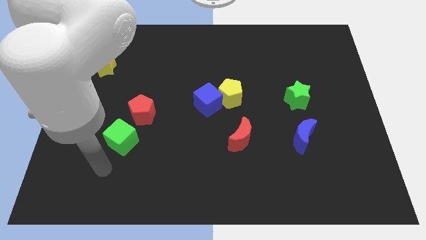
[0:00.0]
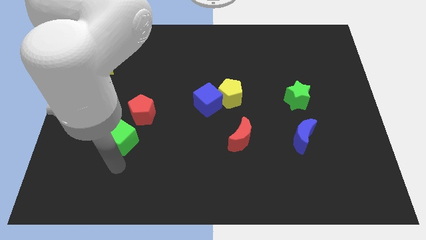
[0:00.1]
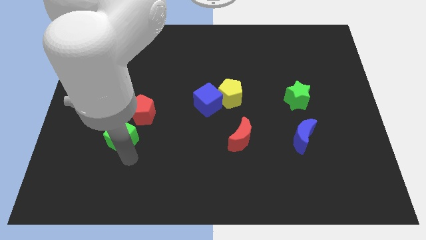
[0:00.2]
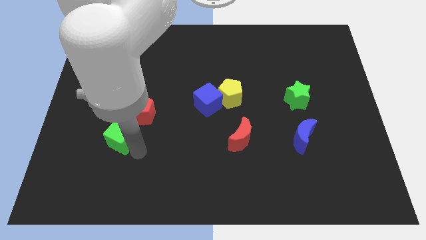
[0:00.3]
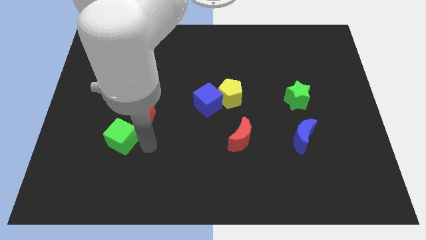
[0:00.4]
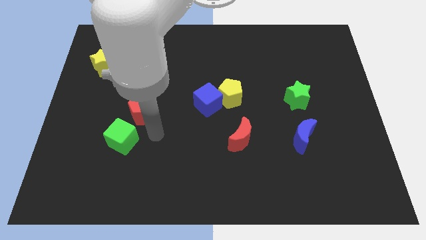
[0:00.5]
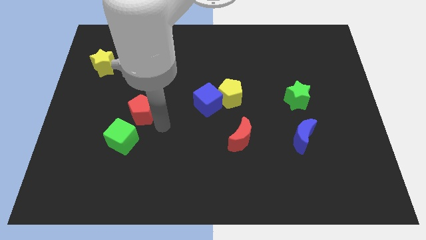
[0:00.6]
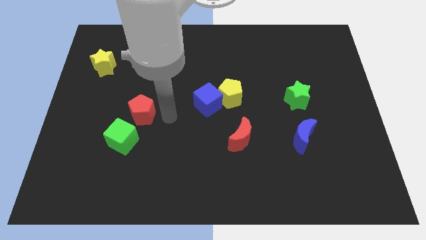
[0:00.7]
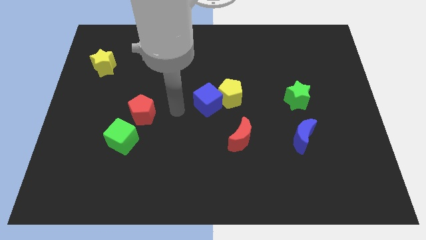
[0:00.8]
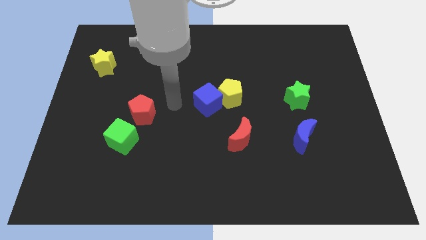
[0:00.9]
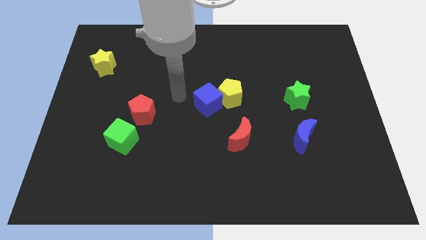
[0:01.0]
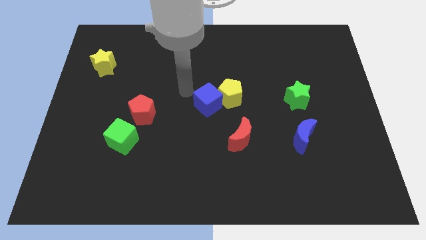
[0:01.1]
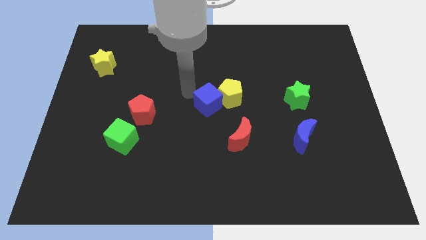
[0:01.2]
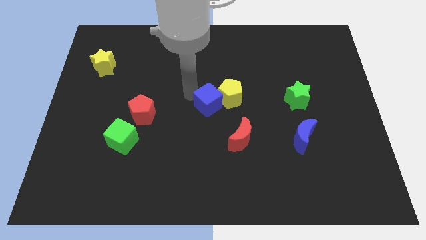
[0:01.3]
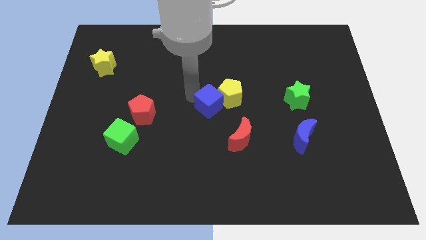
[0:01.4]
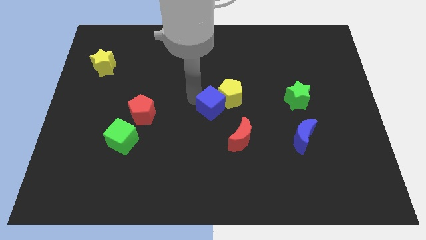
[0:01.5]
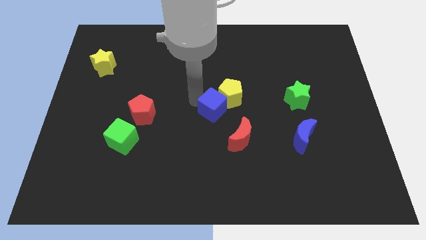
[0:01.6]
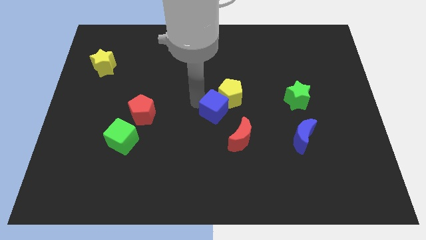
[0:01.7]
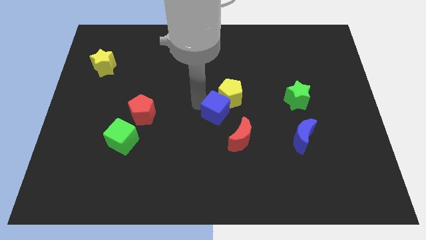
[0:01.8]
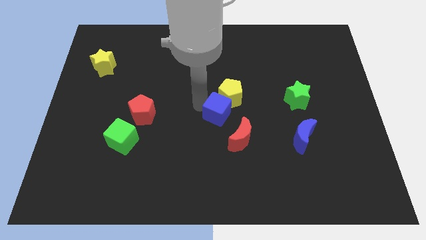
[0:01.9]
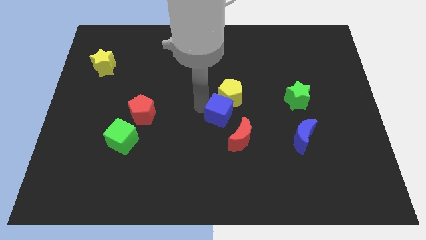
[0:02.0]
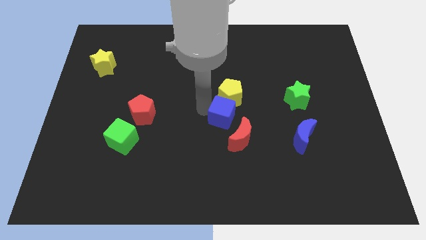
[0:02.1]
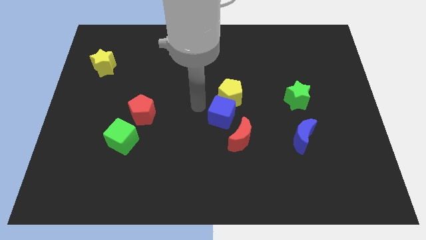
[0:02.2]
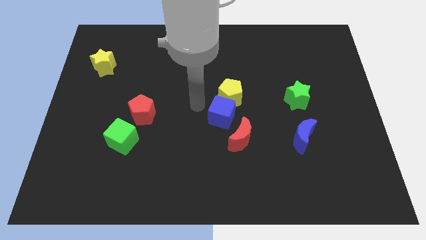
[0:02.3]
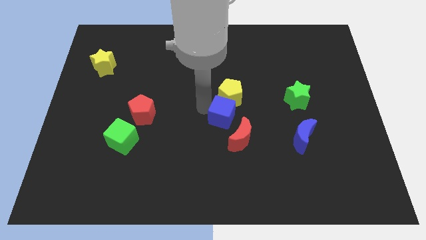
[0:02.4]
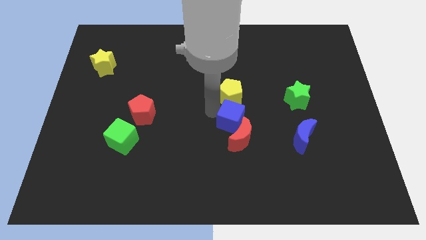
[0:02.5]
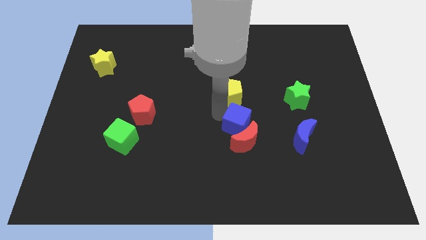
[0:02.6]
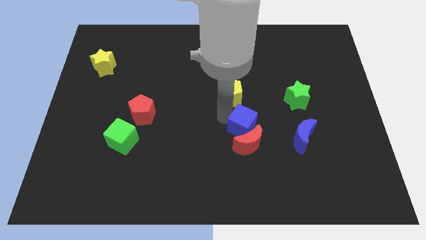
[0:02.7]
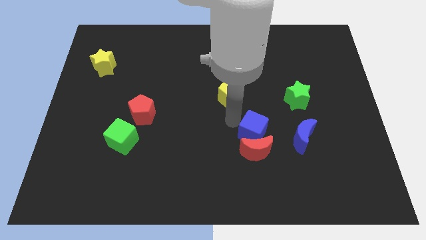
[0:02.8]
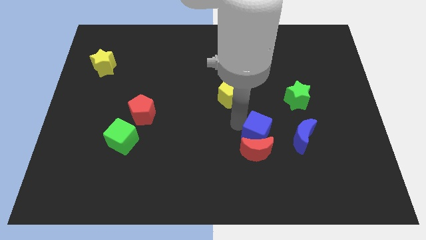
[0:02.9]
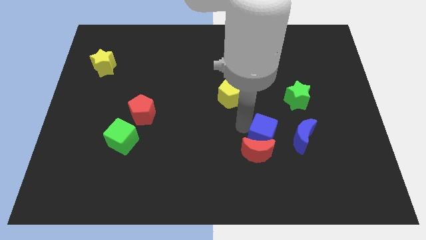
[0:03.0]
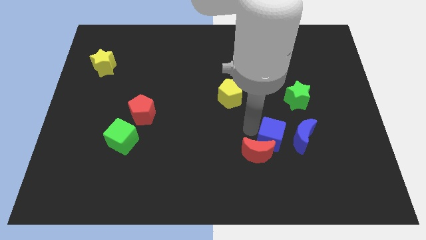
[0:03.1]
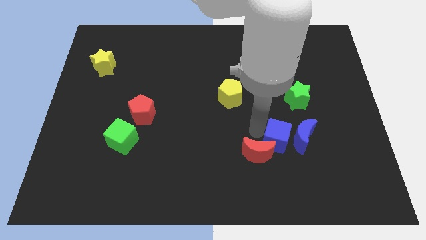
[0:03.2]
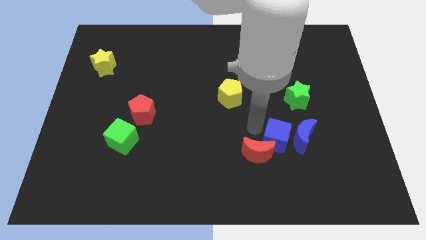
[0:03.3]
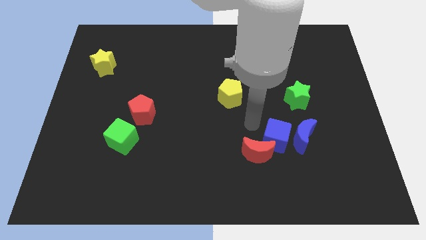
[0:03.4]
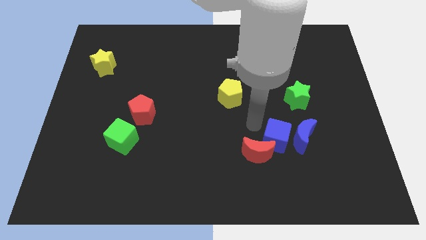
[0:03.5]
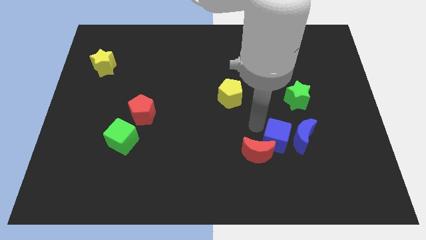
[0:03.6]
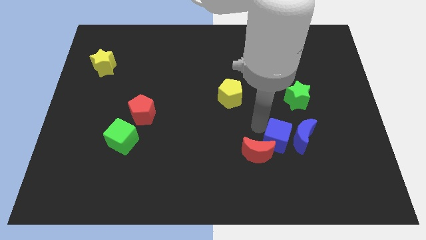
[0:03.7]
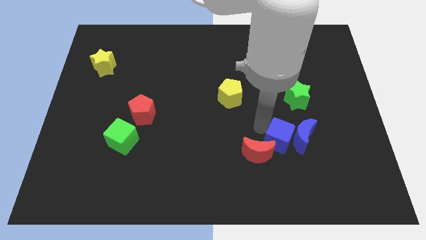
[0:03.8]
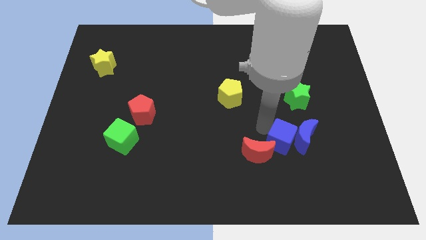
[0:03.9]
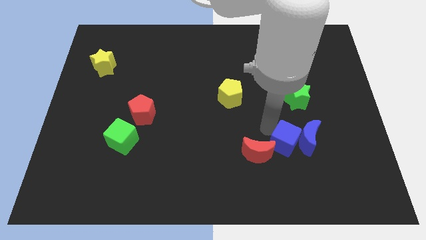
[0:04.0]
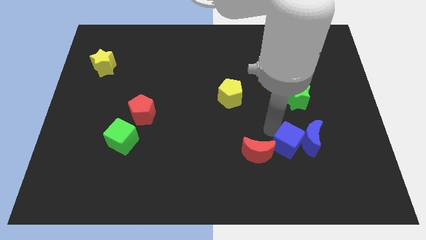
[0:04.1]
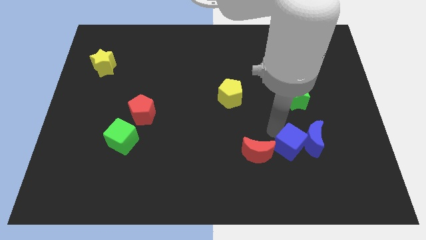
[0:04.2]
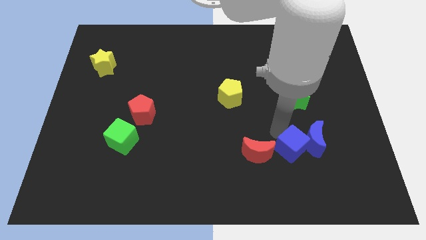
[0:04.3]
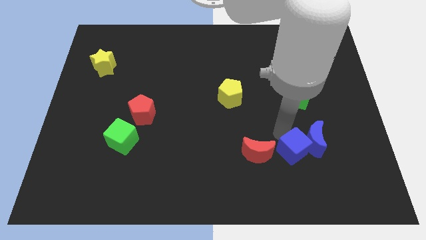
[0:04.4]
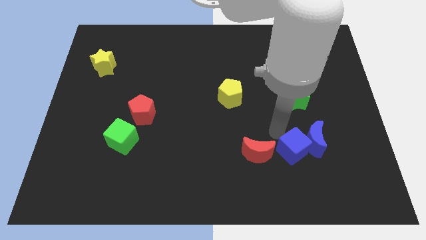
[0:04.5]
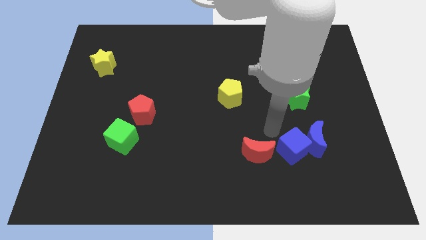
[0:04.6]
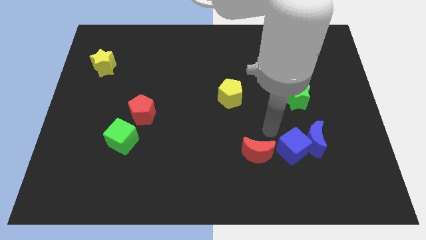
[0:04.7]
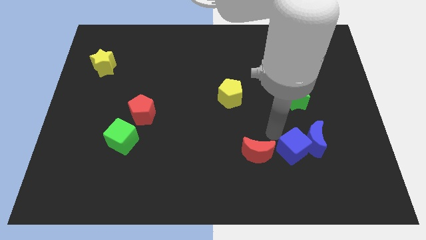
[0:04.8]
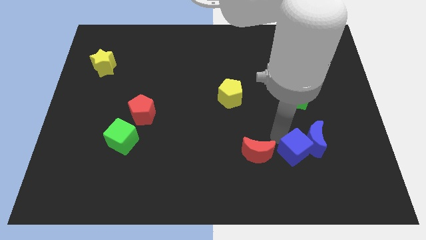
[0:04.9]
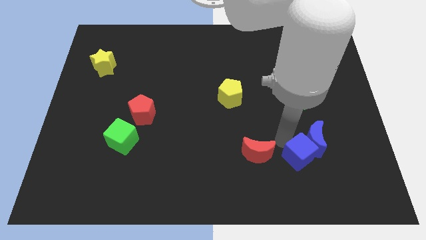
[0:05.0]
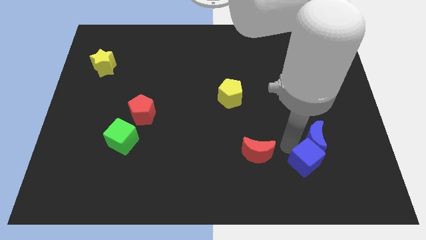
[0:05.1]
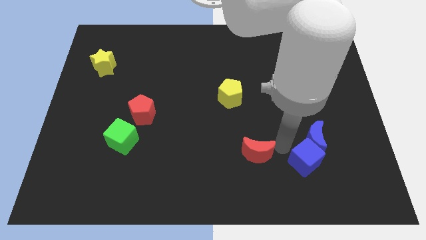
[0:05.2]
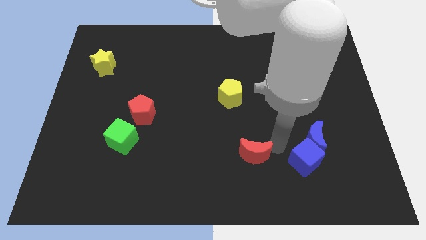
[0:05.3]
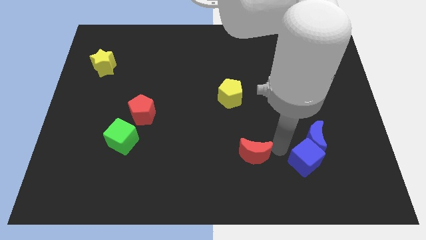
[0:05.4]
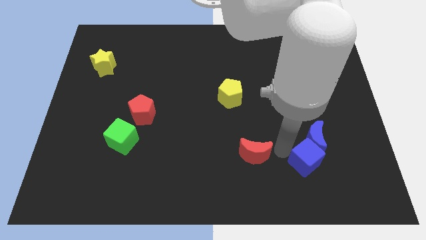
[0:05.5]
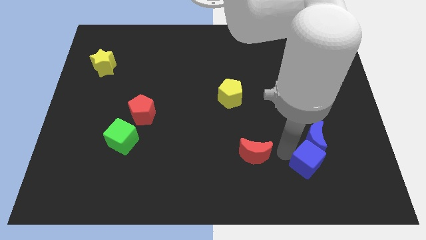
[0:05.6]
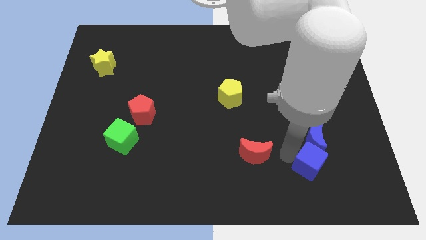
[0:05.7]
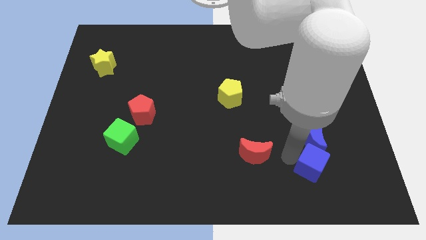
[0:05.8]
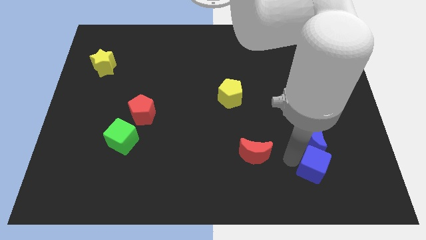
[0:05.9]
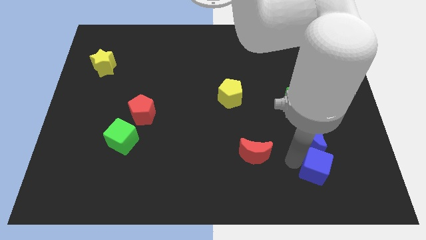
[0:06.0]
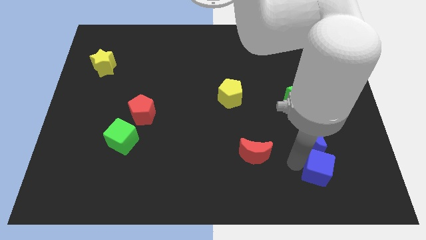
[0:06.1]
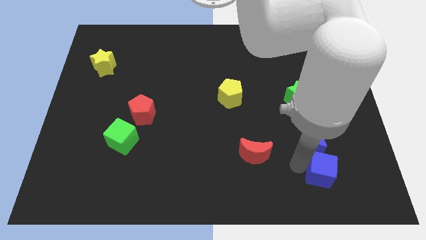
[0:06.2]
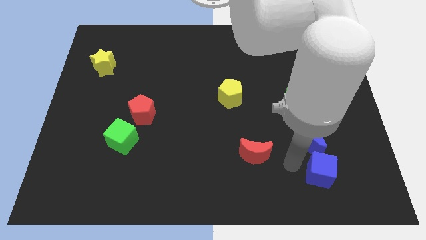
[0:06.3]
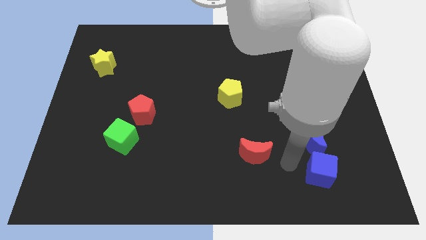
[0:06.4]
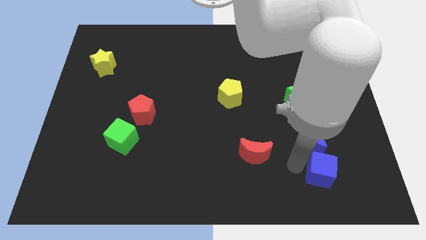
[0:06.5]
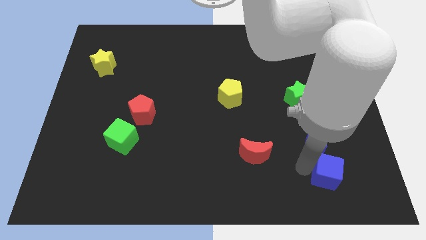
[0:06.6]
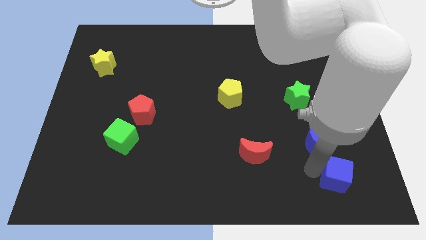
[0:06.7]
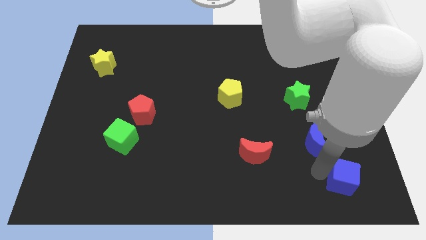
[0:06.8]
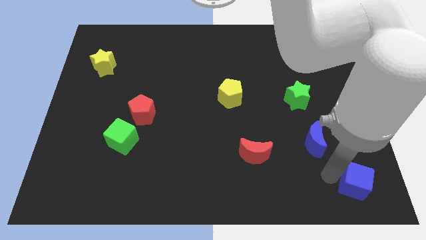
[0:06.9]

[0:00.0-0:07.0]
push the blue cube to the bottom right

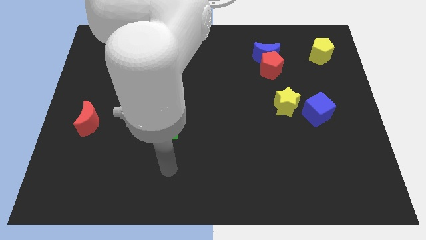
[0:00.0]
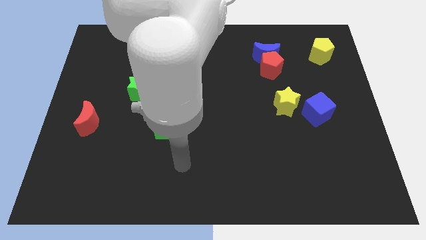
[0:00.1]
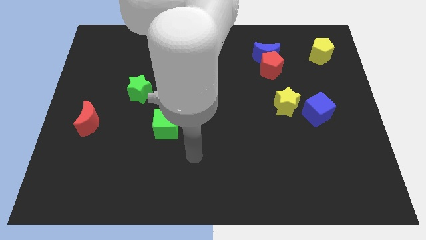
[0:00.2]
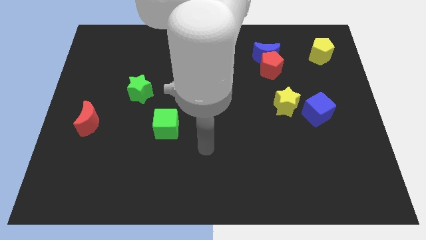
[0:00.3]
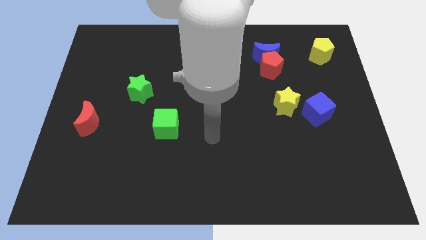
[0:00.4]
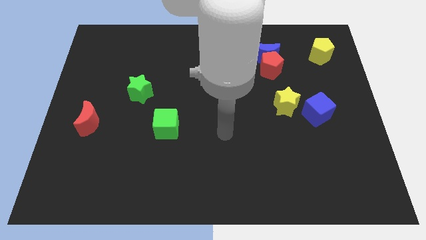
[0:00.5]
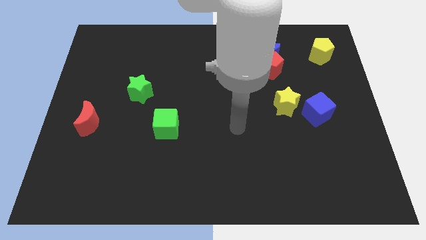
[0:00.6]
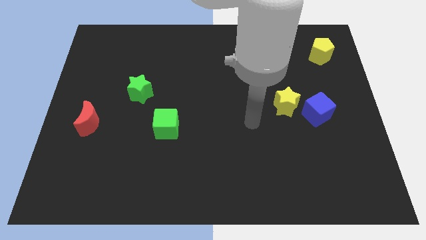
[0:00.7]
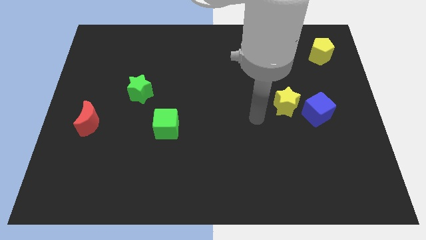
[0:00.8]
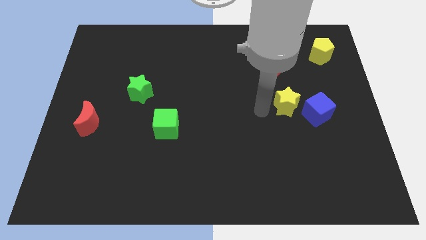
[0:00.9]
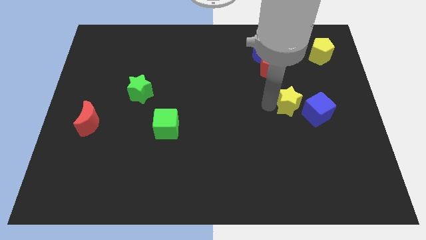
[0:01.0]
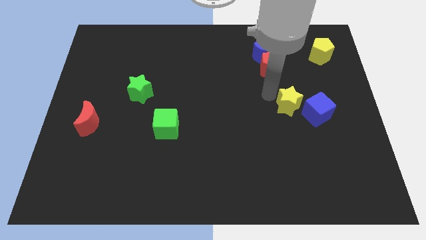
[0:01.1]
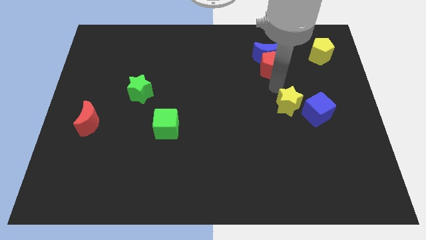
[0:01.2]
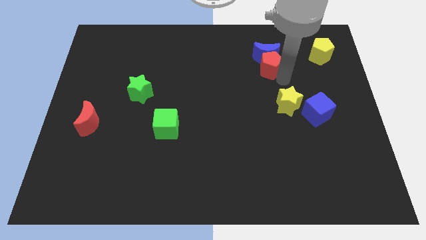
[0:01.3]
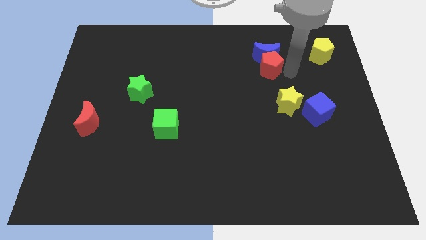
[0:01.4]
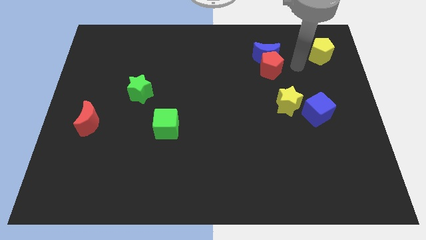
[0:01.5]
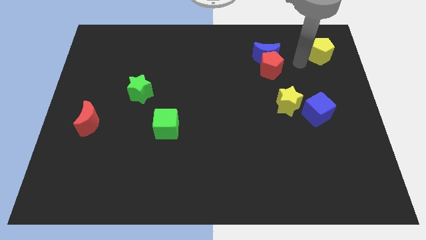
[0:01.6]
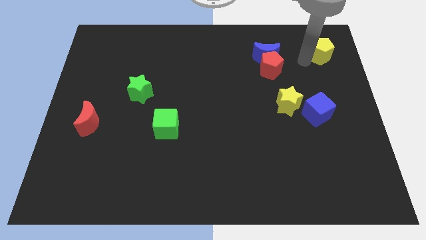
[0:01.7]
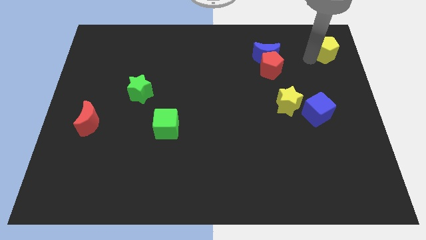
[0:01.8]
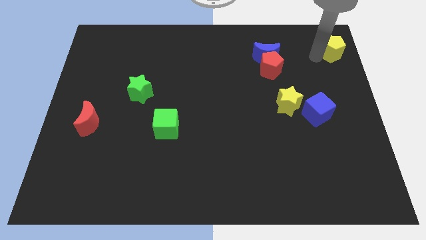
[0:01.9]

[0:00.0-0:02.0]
push the yellow pentagon to the top right
